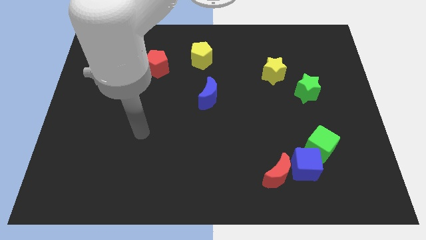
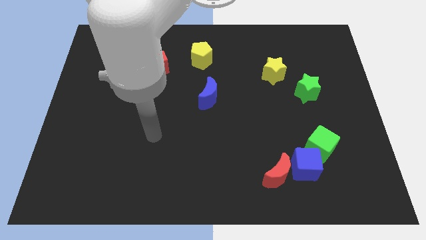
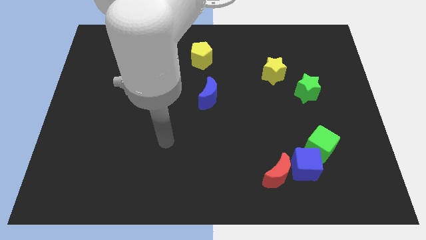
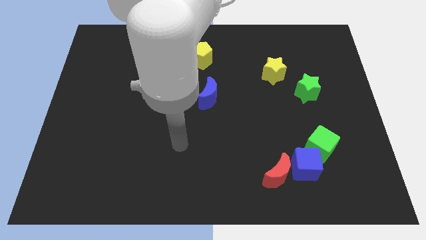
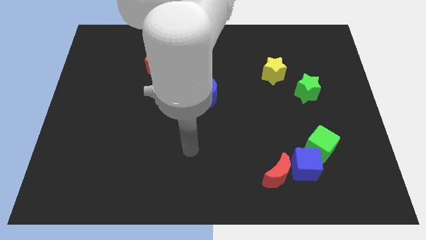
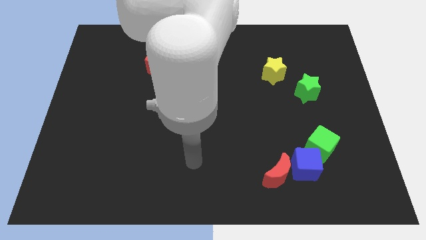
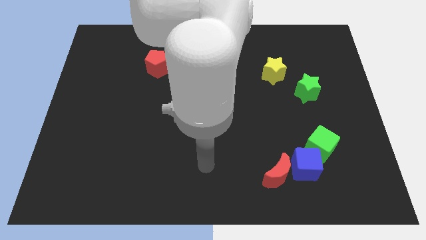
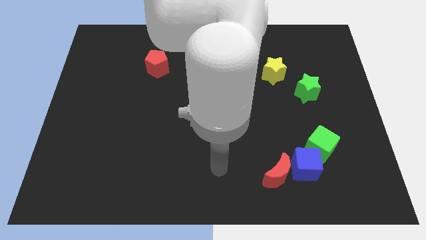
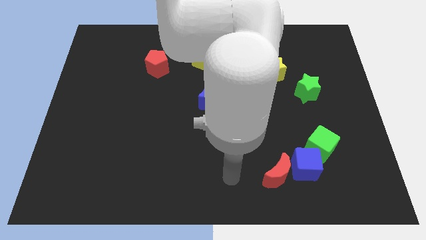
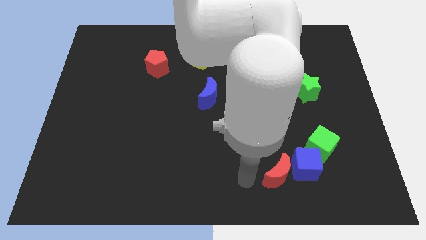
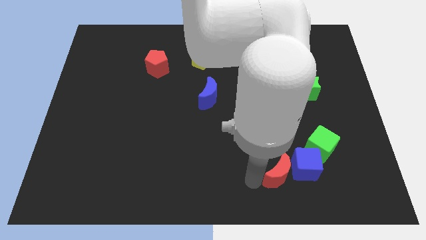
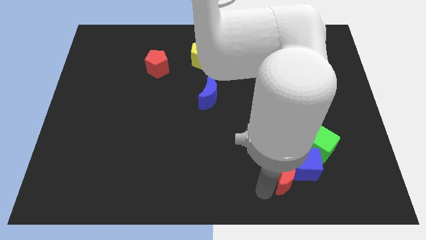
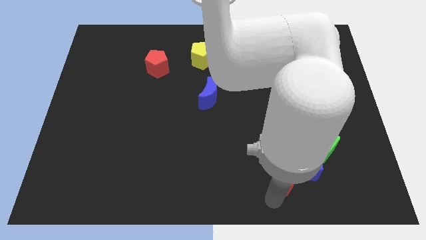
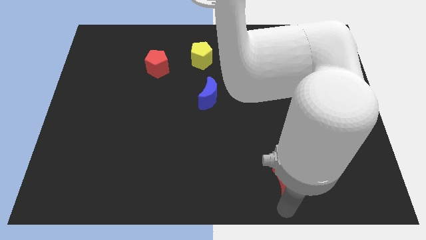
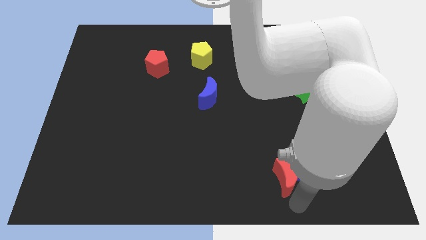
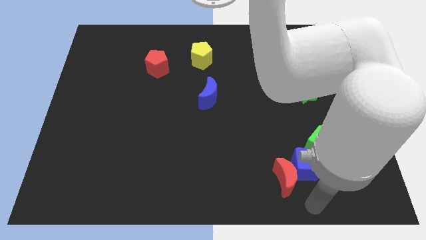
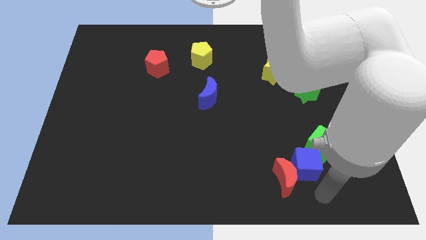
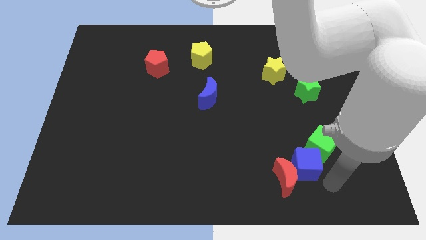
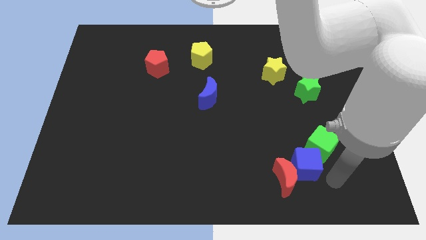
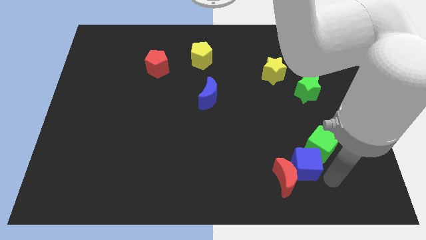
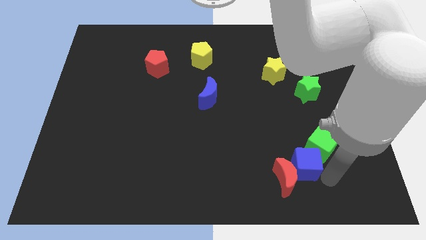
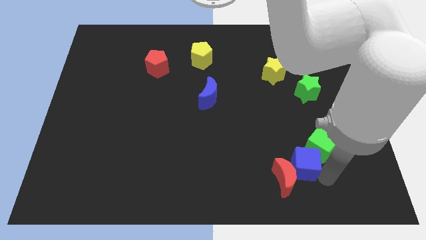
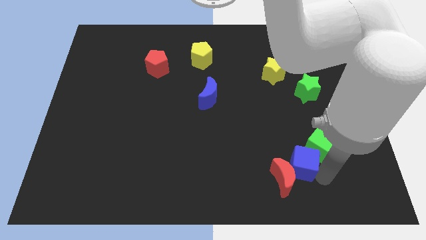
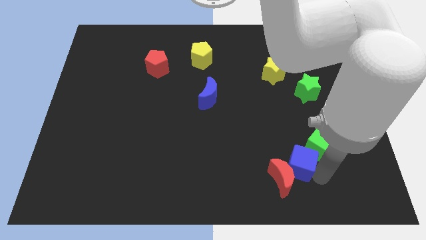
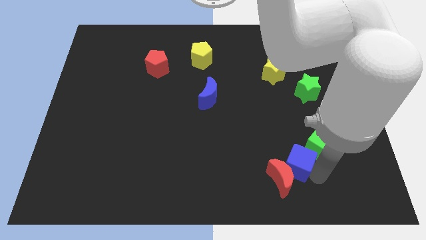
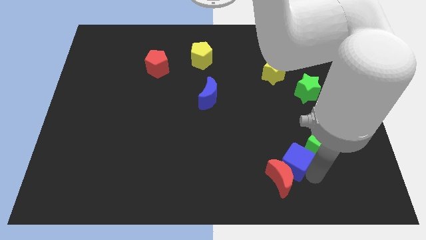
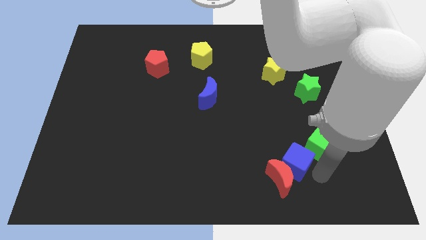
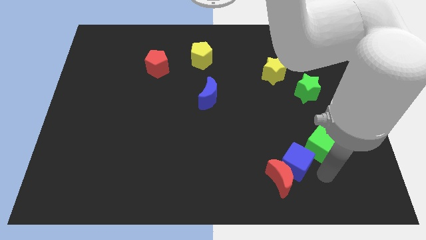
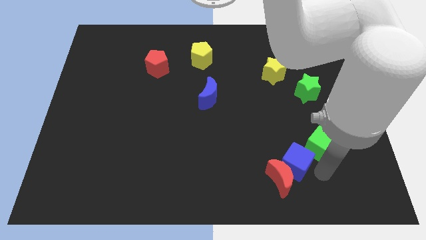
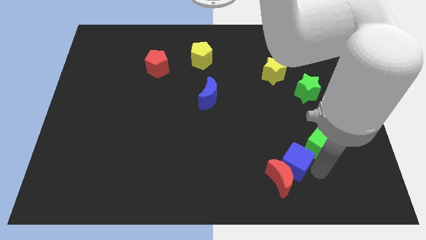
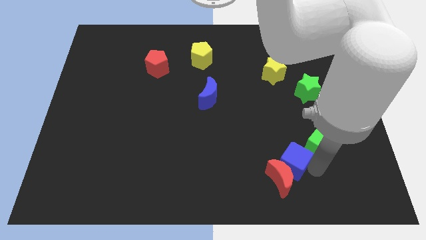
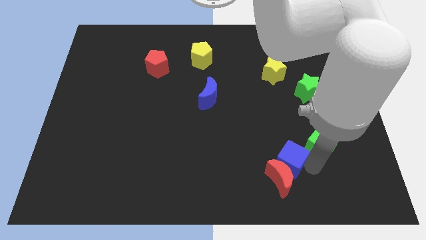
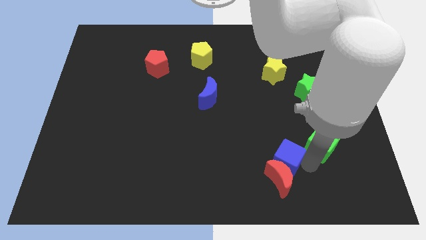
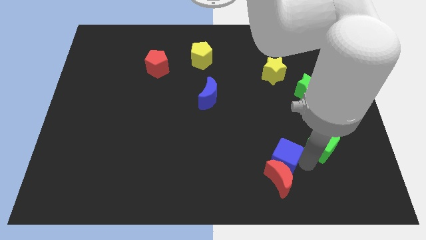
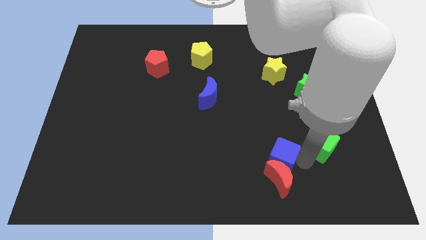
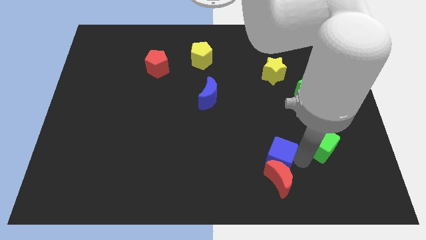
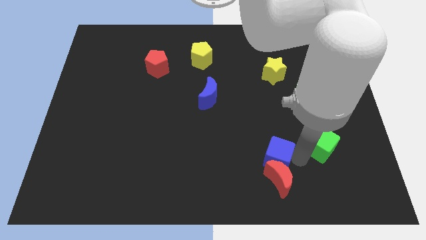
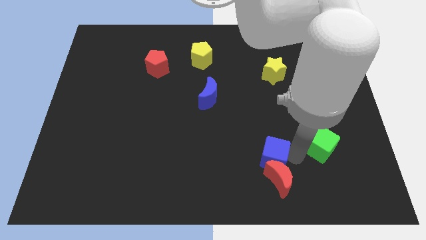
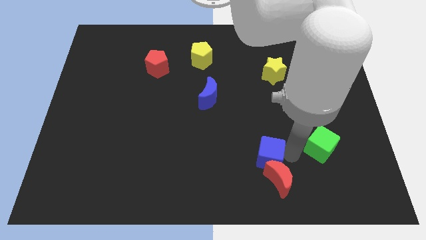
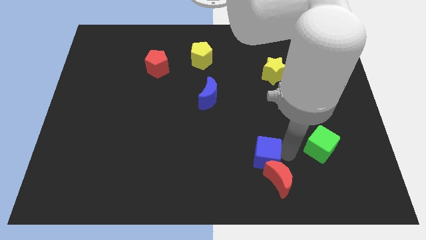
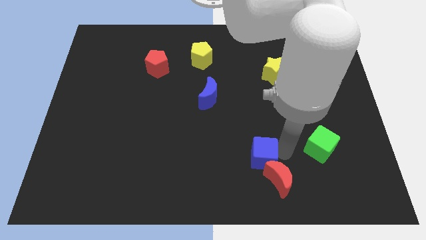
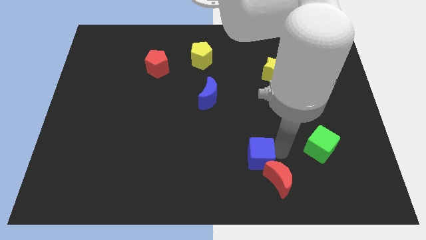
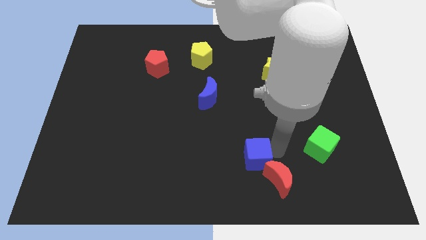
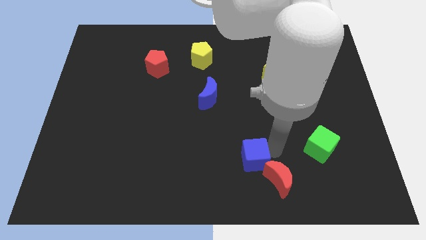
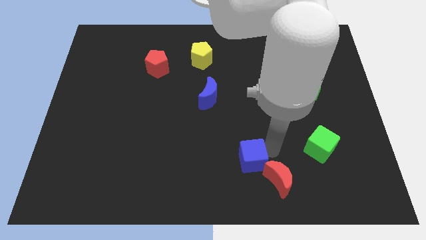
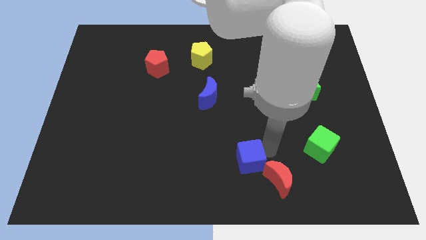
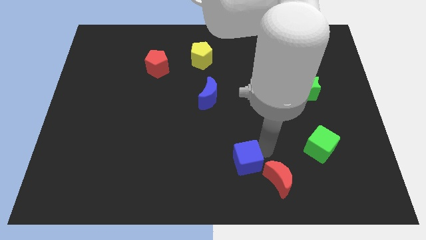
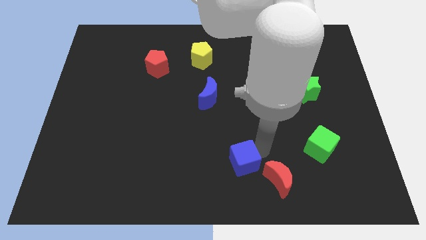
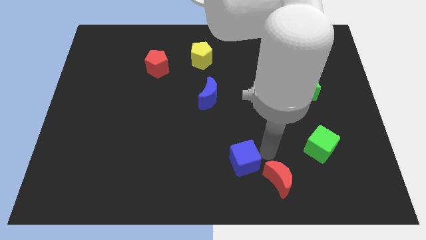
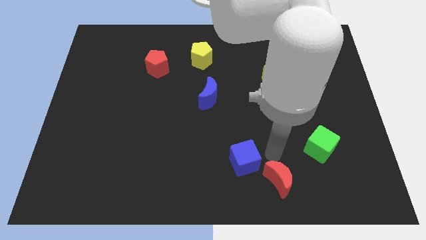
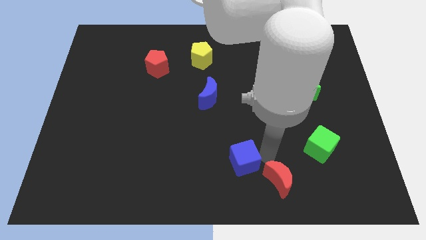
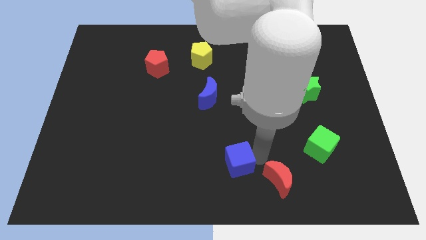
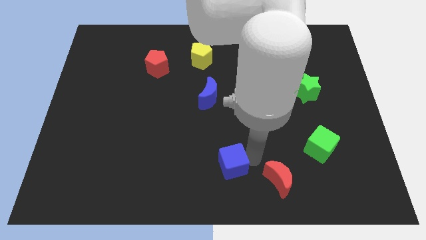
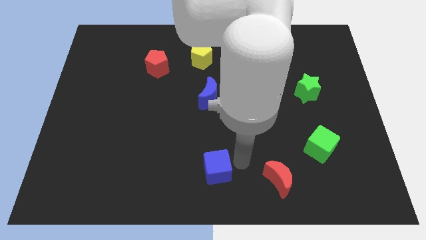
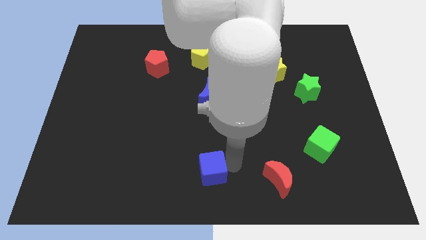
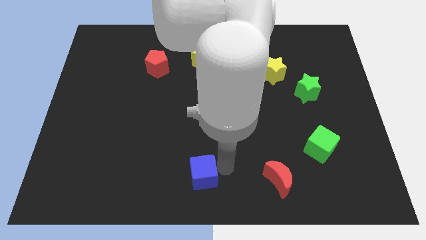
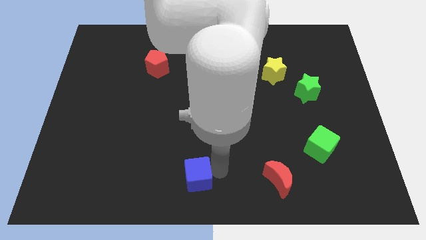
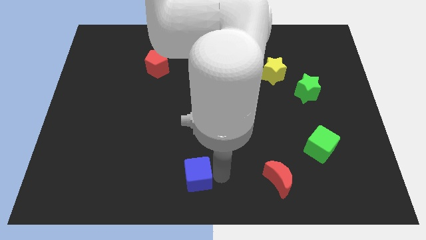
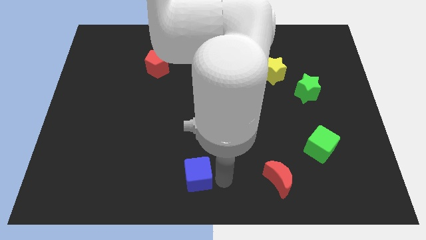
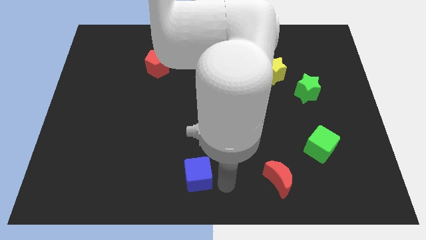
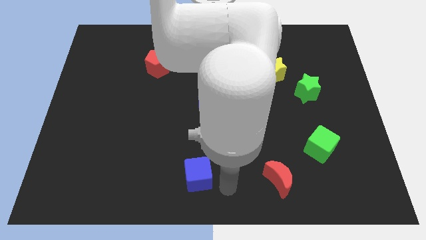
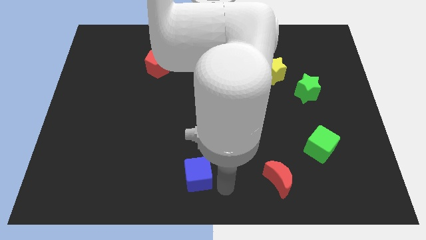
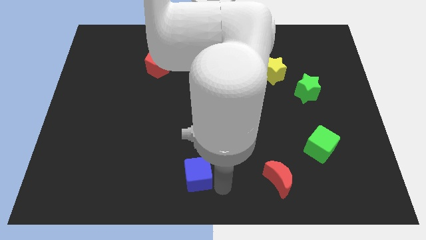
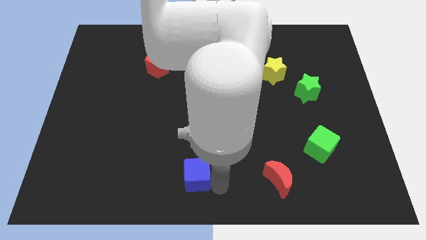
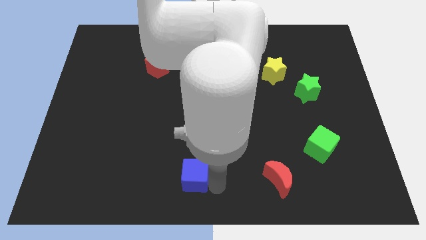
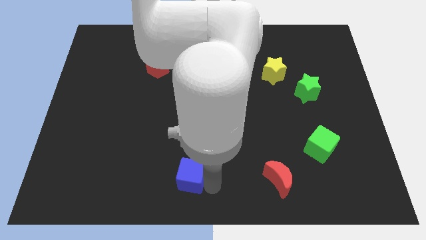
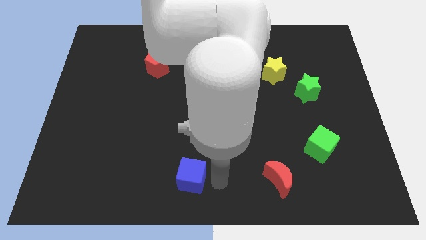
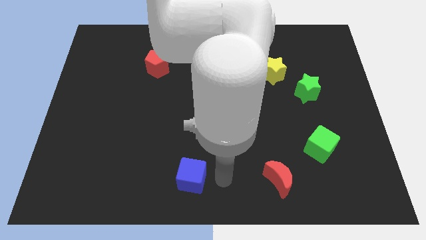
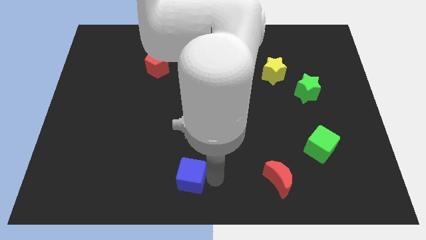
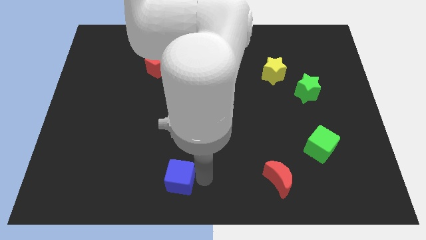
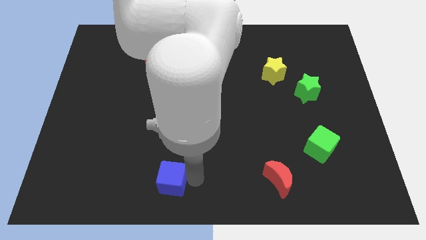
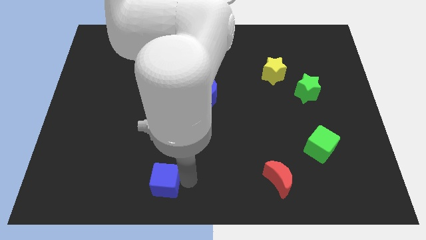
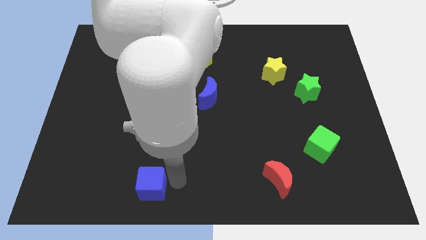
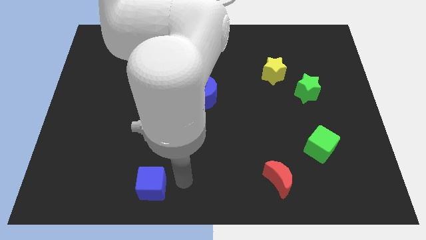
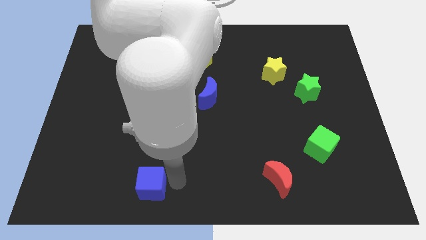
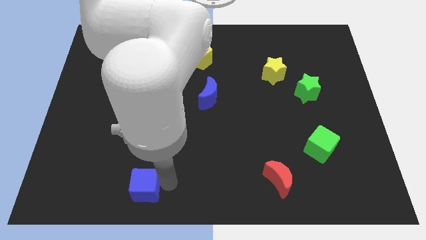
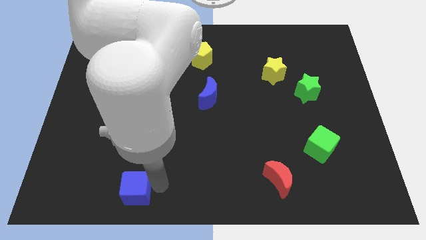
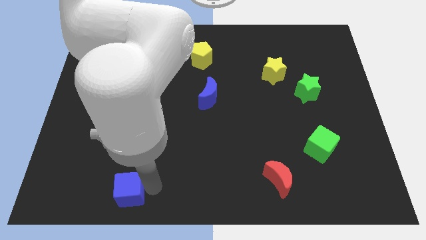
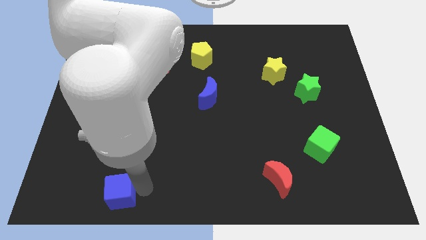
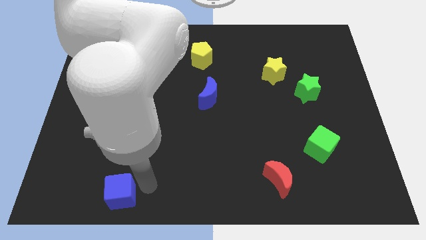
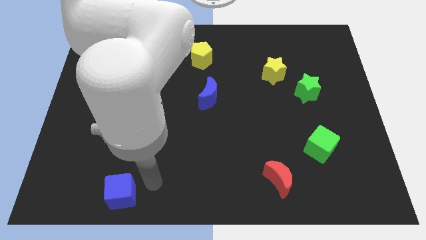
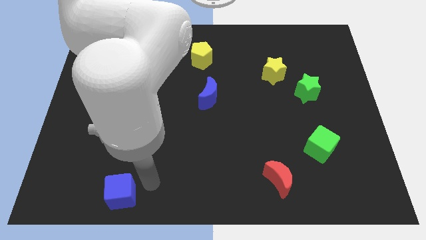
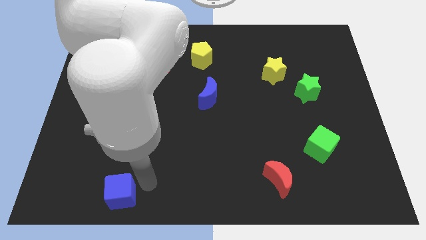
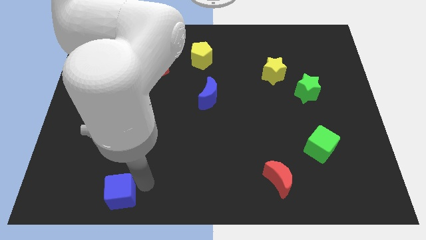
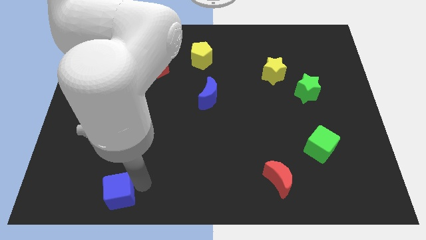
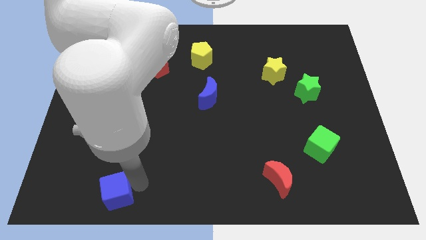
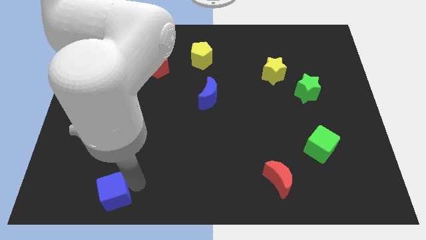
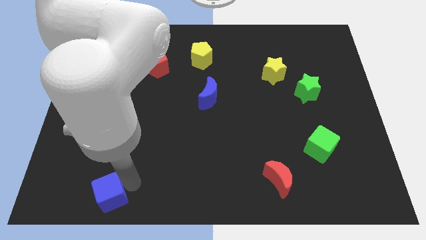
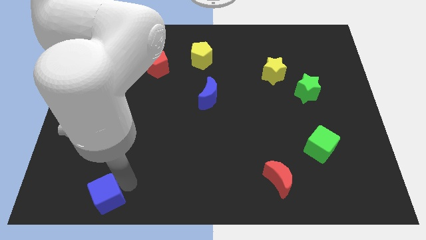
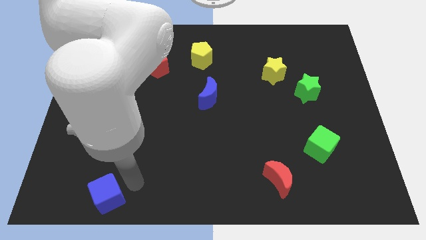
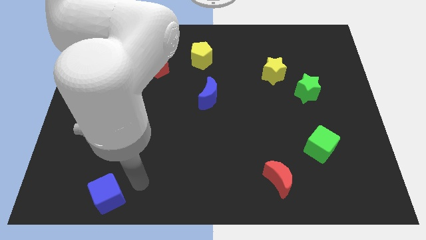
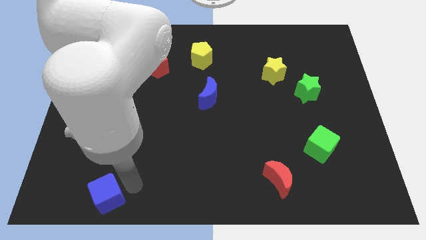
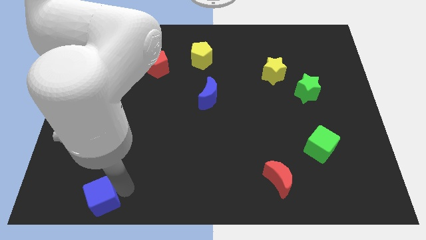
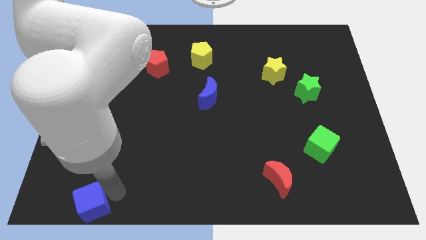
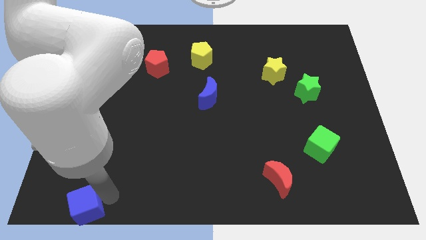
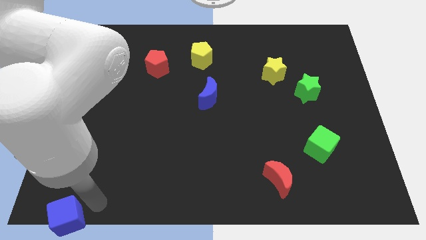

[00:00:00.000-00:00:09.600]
slide the blue cube to the bottom left corner
